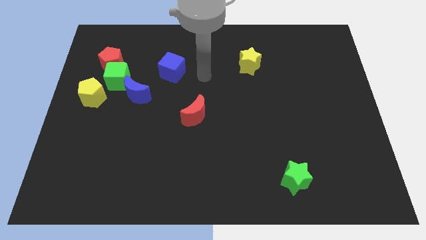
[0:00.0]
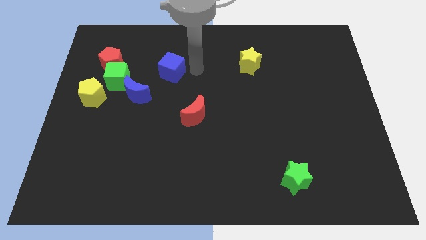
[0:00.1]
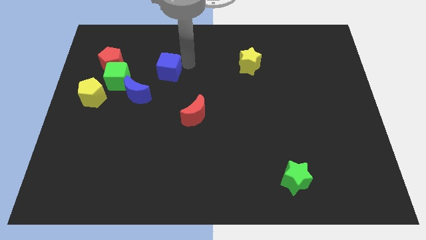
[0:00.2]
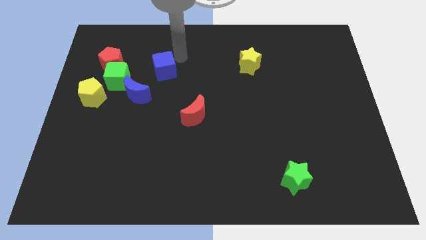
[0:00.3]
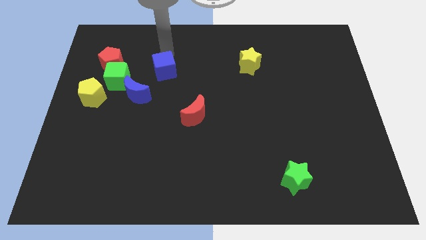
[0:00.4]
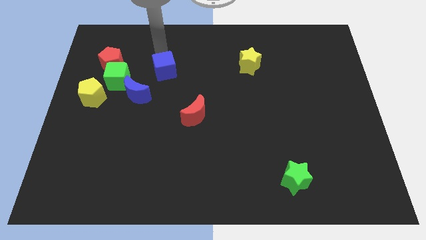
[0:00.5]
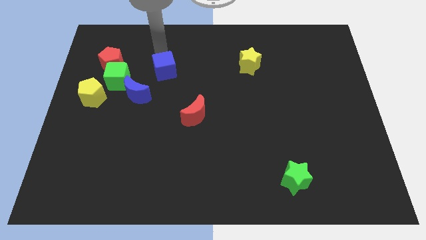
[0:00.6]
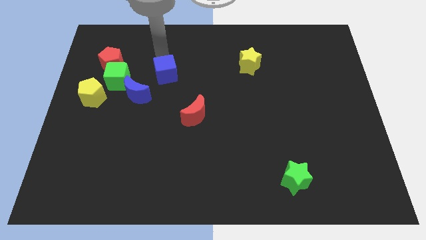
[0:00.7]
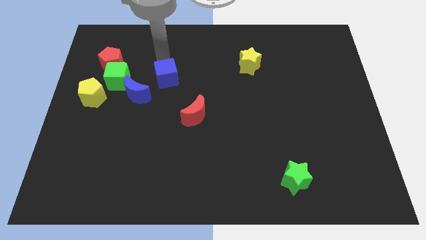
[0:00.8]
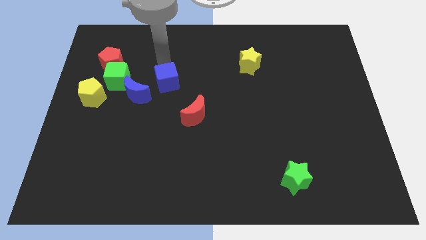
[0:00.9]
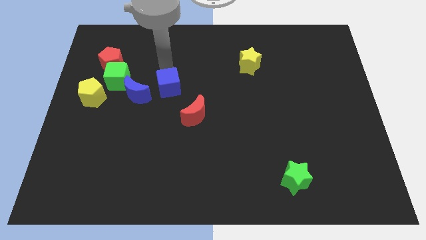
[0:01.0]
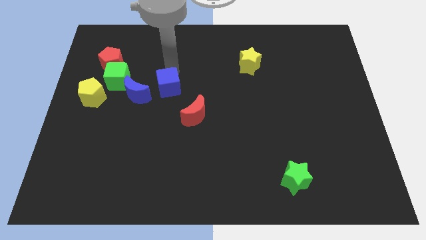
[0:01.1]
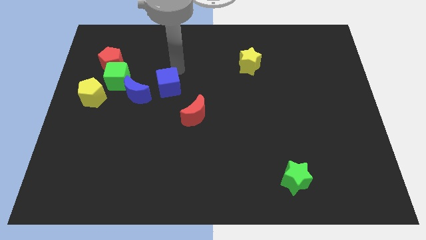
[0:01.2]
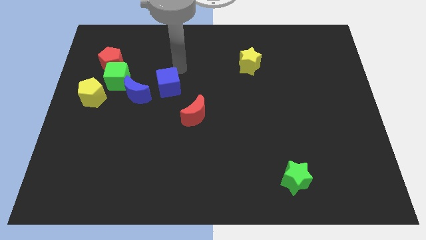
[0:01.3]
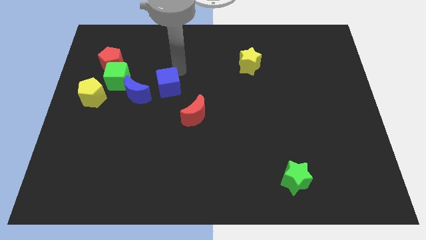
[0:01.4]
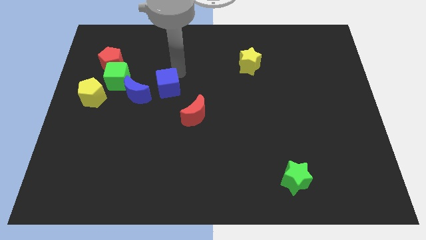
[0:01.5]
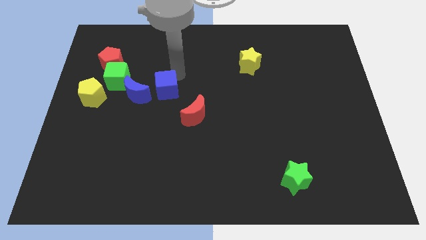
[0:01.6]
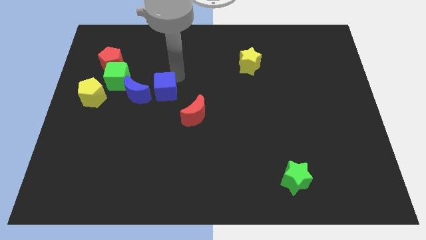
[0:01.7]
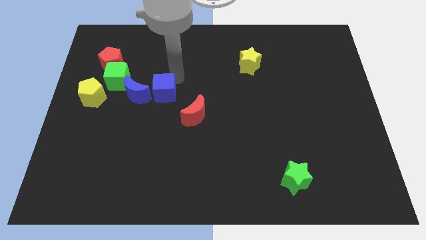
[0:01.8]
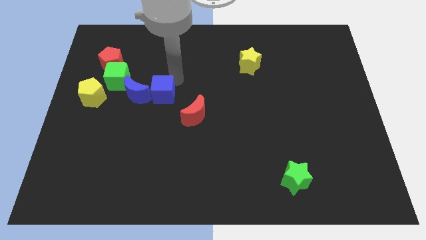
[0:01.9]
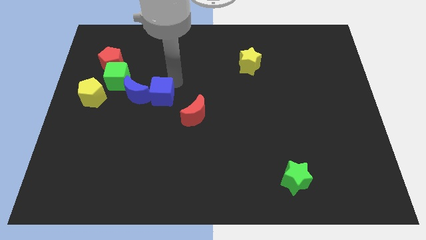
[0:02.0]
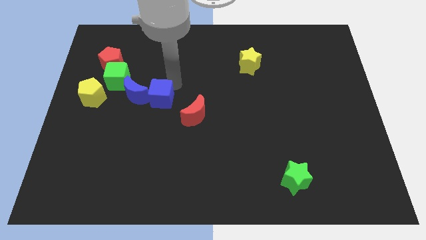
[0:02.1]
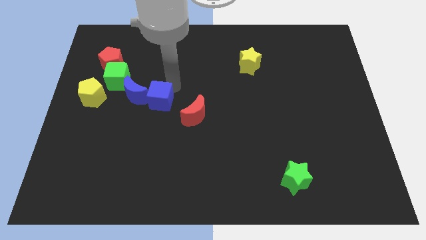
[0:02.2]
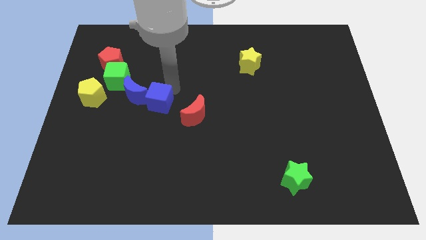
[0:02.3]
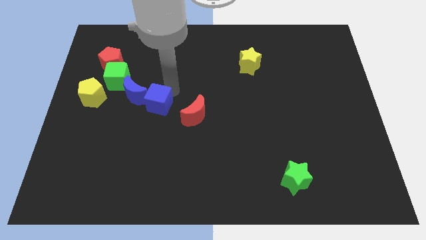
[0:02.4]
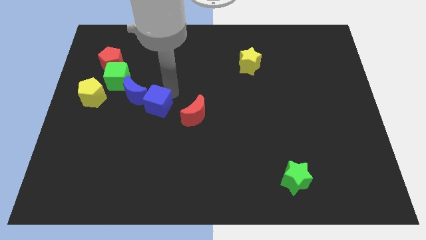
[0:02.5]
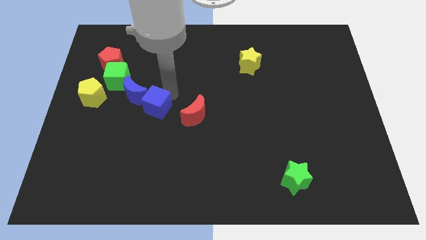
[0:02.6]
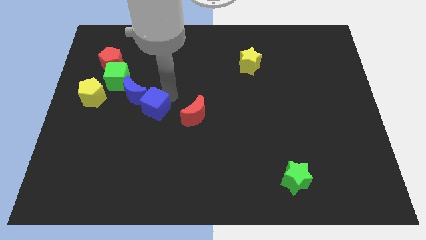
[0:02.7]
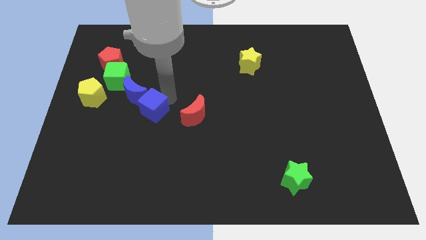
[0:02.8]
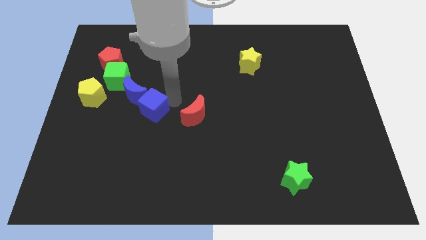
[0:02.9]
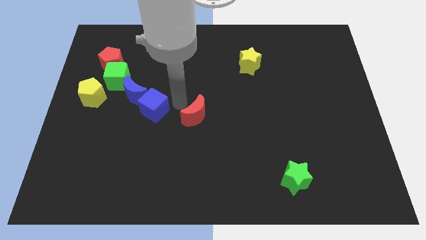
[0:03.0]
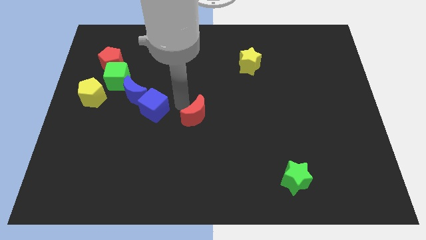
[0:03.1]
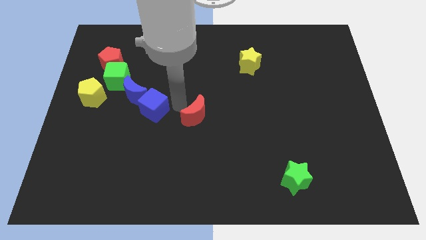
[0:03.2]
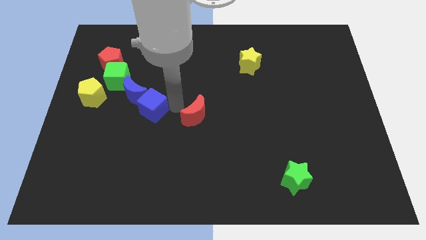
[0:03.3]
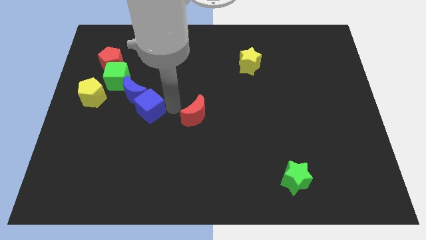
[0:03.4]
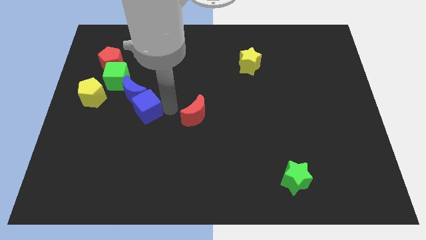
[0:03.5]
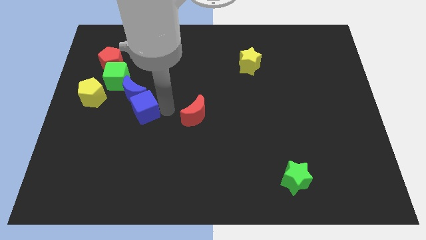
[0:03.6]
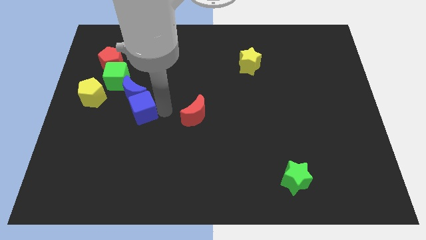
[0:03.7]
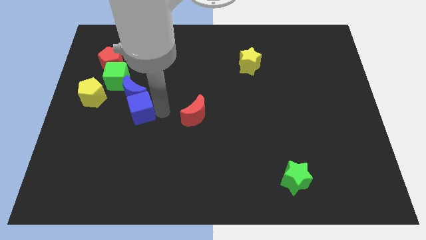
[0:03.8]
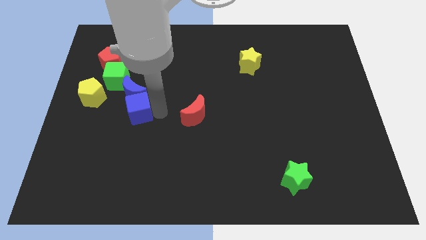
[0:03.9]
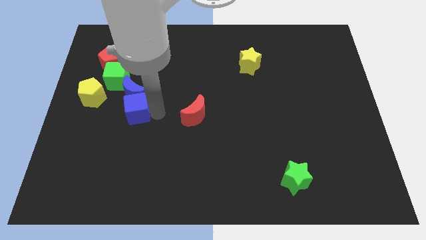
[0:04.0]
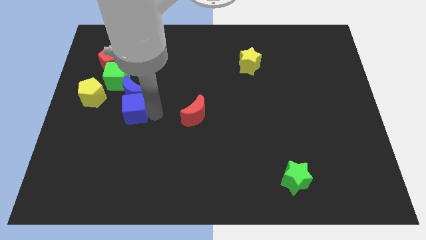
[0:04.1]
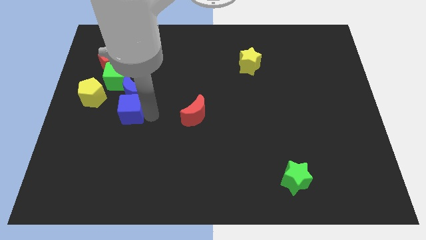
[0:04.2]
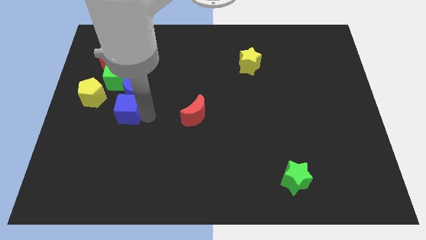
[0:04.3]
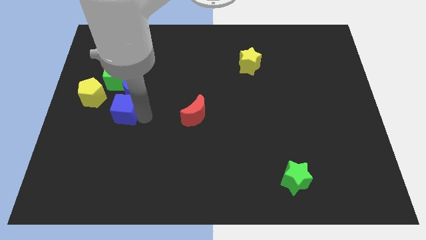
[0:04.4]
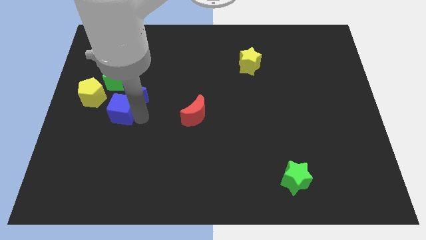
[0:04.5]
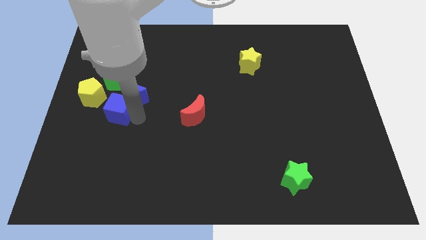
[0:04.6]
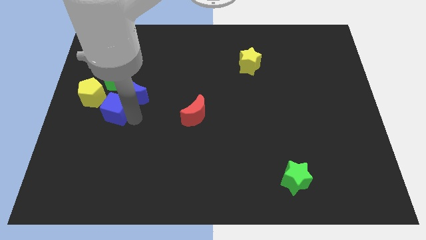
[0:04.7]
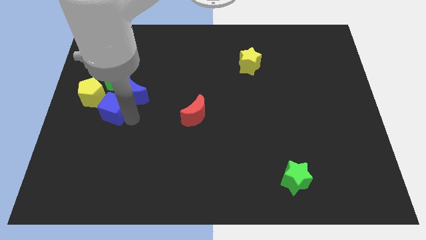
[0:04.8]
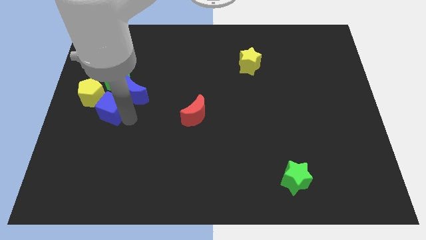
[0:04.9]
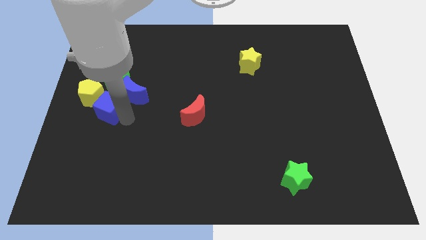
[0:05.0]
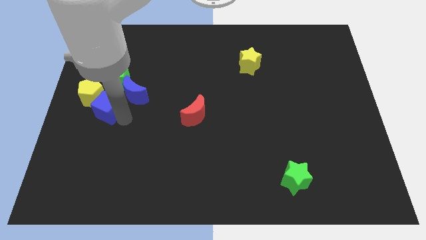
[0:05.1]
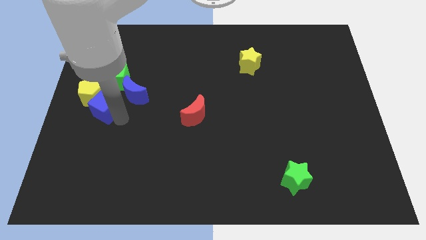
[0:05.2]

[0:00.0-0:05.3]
slide the blue cube next to the yellow pentagon

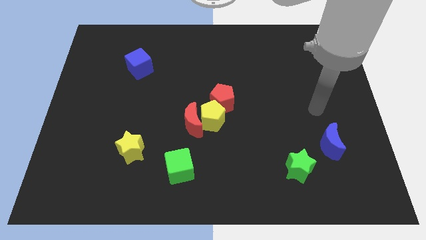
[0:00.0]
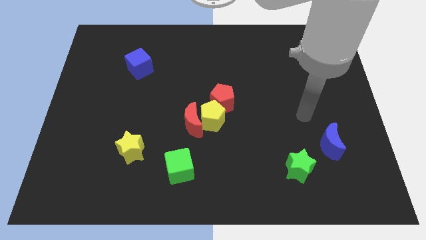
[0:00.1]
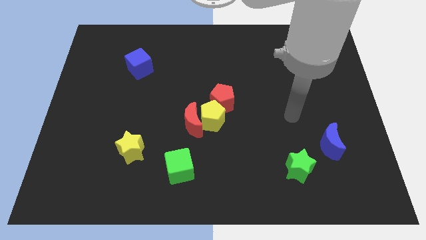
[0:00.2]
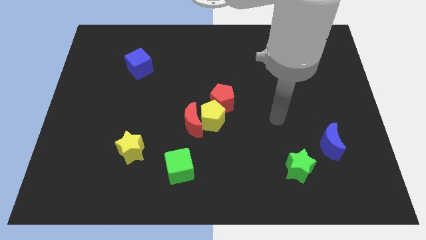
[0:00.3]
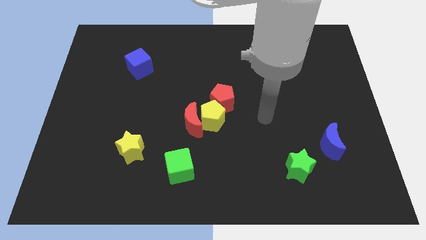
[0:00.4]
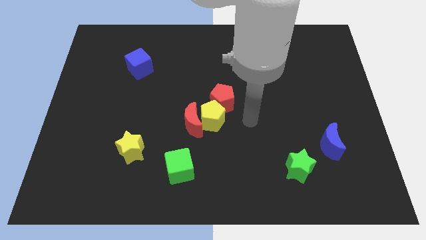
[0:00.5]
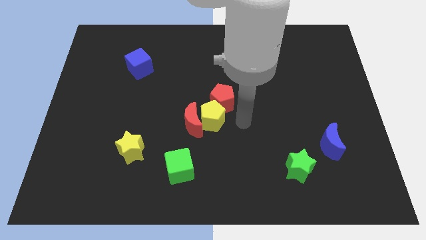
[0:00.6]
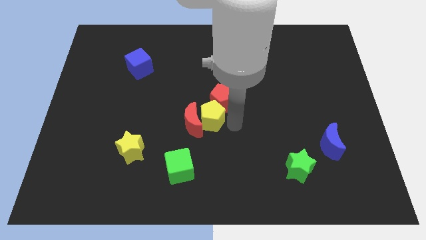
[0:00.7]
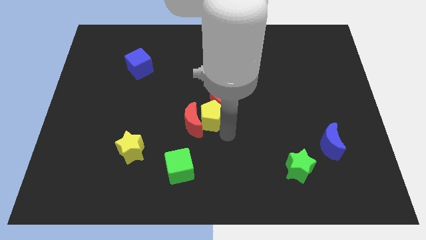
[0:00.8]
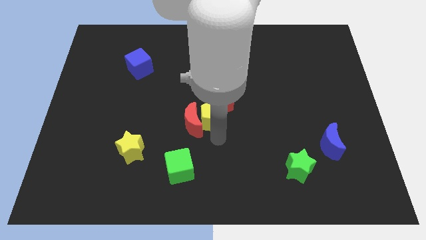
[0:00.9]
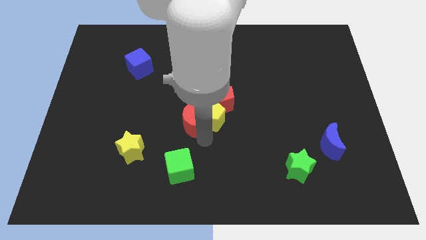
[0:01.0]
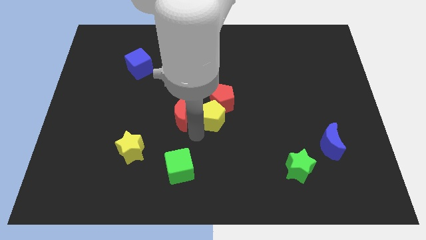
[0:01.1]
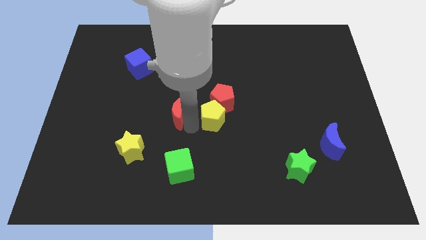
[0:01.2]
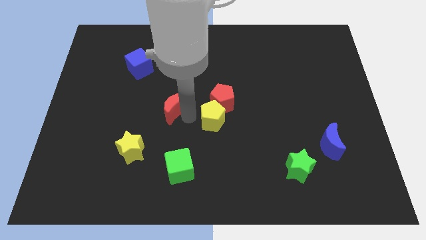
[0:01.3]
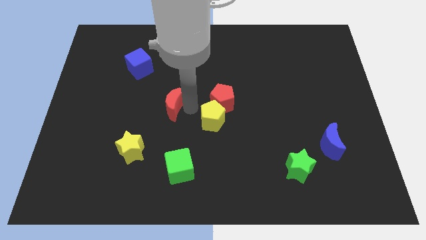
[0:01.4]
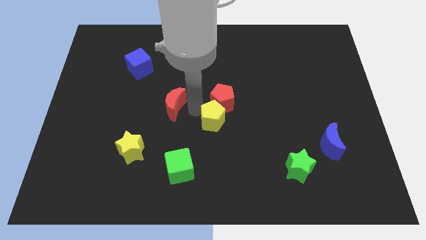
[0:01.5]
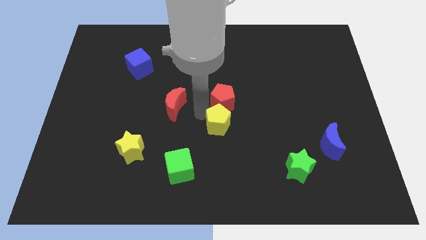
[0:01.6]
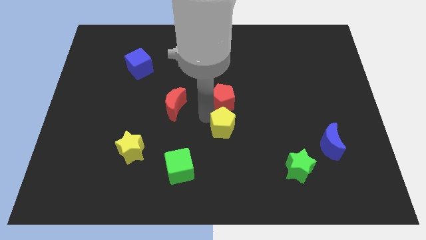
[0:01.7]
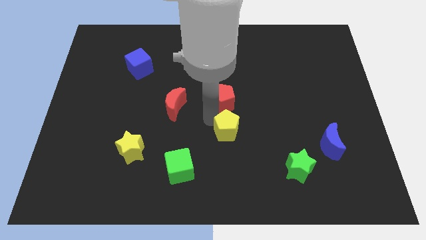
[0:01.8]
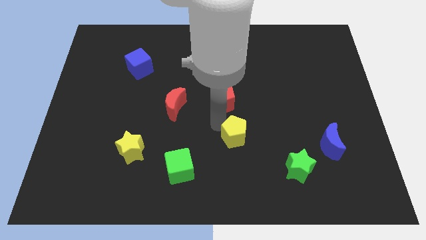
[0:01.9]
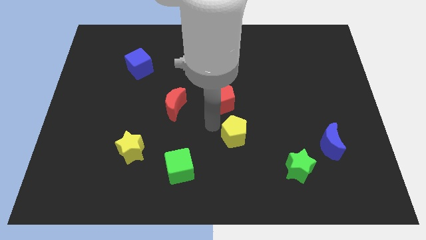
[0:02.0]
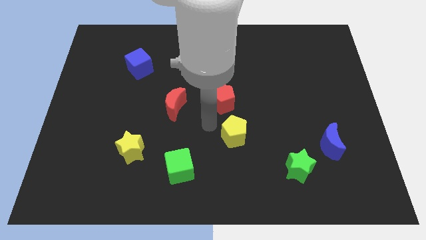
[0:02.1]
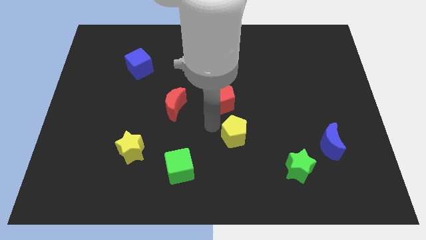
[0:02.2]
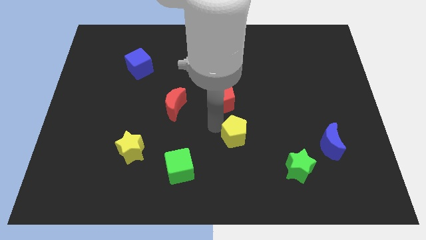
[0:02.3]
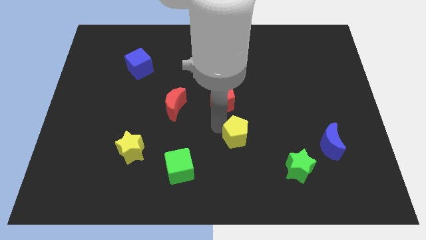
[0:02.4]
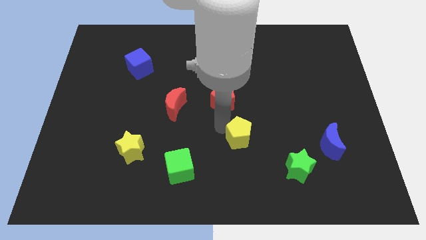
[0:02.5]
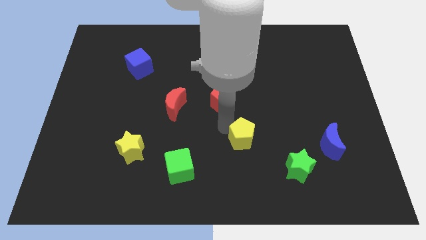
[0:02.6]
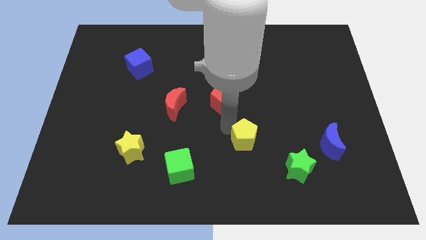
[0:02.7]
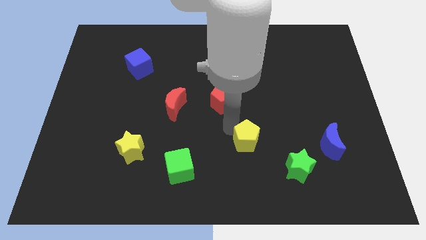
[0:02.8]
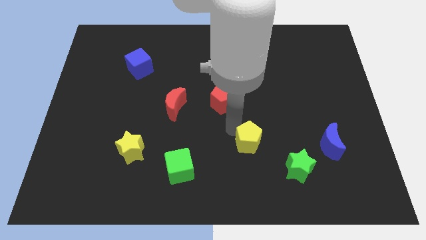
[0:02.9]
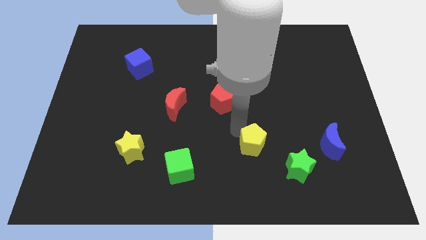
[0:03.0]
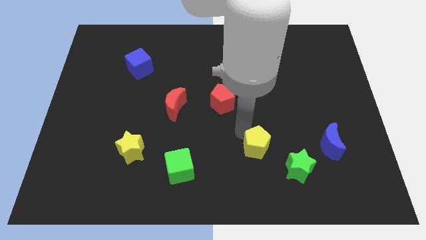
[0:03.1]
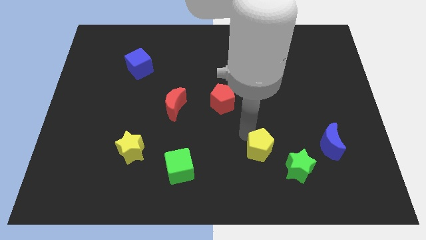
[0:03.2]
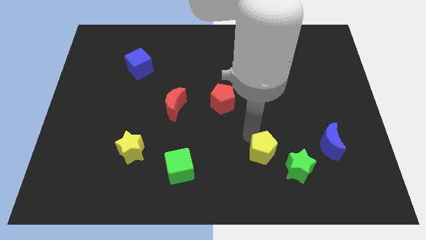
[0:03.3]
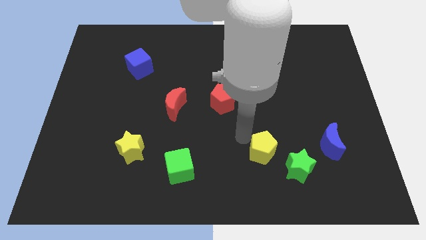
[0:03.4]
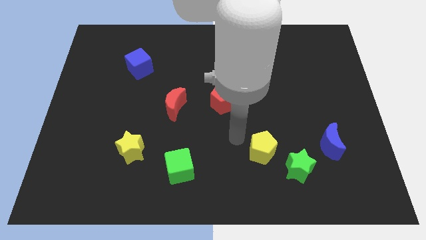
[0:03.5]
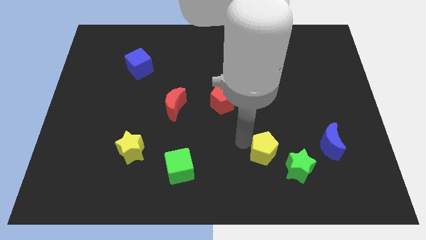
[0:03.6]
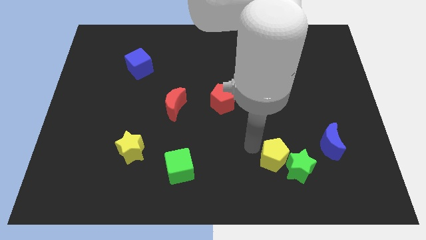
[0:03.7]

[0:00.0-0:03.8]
push the yellow pentagon towards the green star
